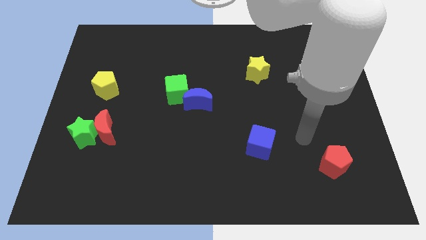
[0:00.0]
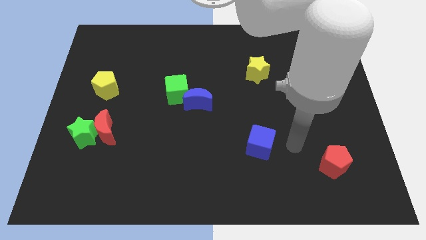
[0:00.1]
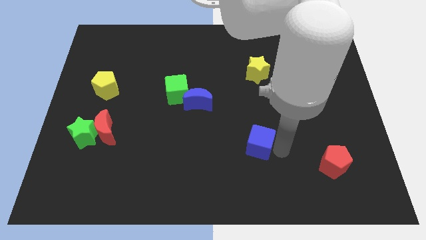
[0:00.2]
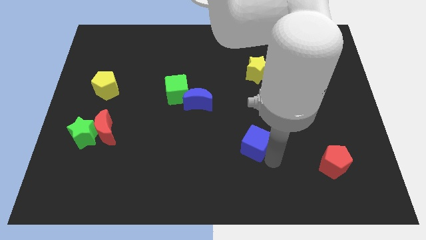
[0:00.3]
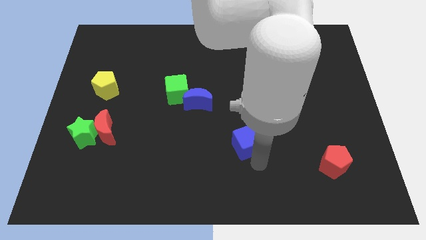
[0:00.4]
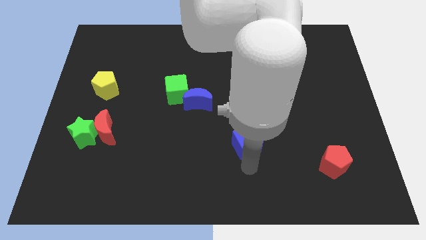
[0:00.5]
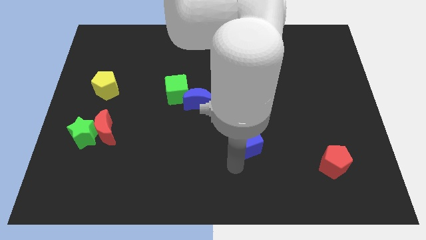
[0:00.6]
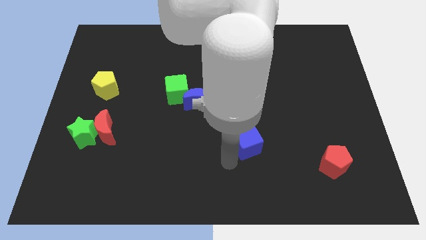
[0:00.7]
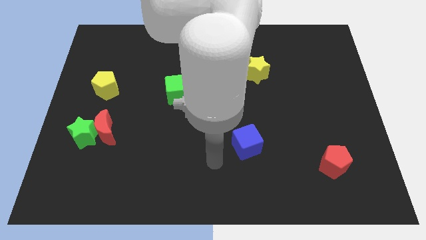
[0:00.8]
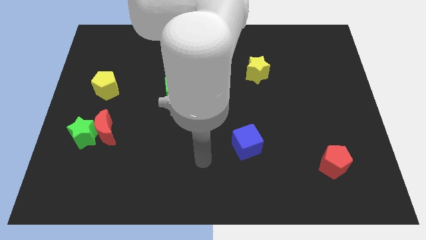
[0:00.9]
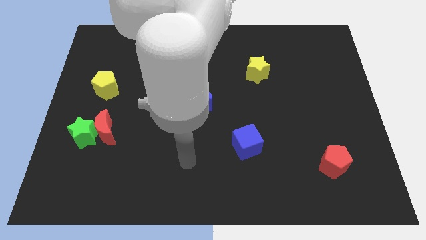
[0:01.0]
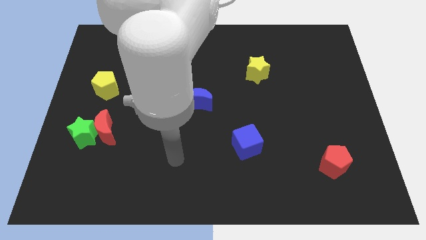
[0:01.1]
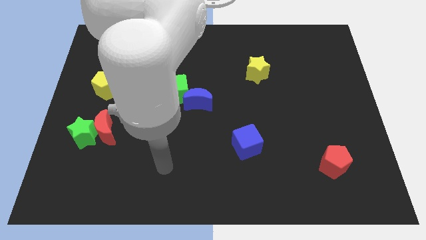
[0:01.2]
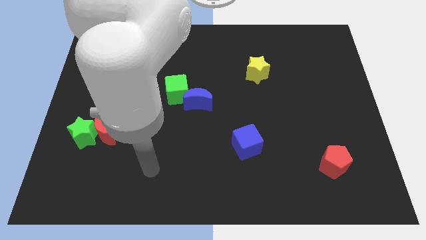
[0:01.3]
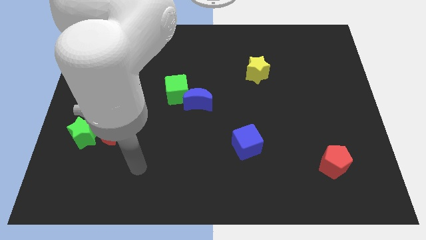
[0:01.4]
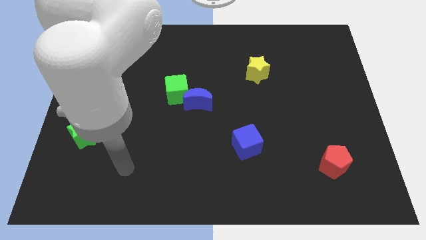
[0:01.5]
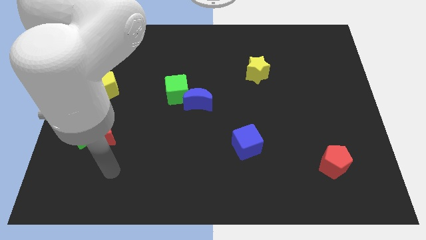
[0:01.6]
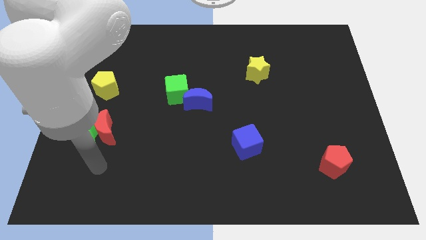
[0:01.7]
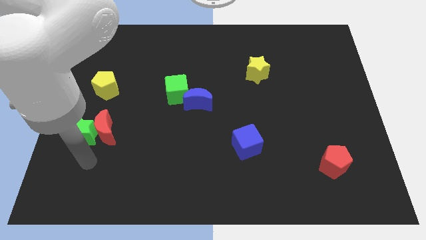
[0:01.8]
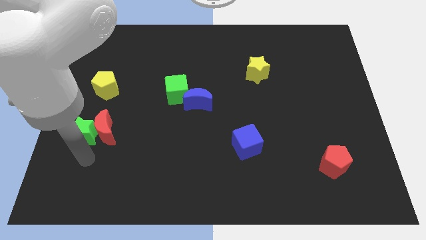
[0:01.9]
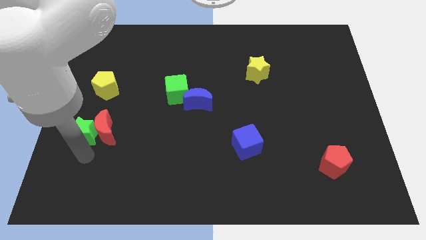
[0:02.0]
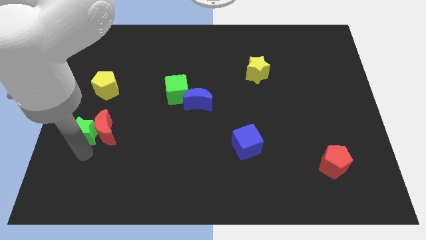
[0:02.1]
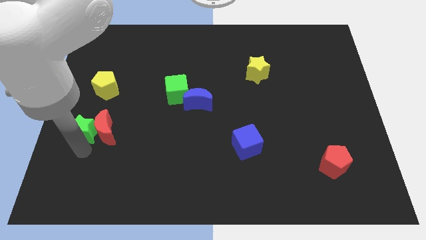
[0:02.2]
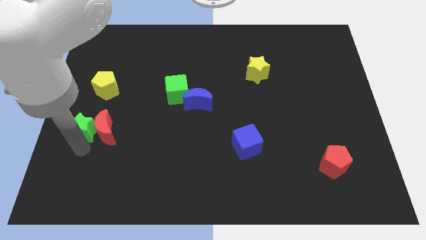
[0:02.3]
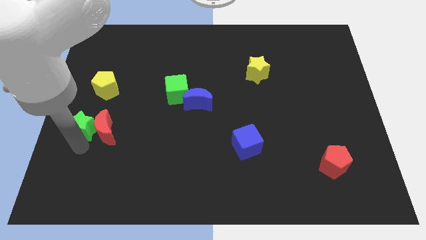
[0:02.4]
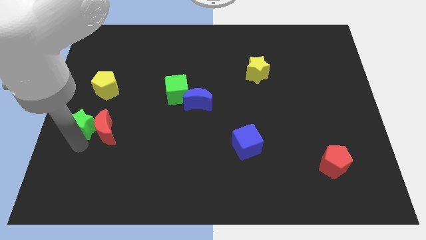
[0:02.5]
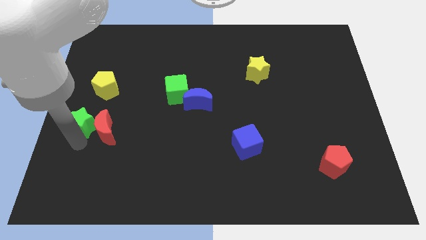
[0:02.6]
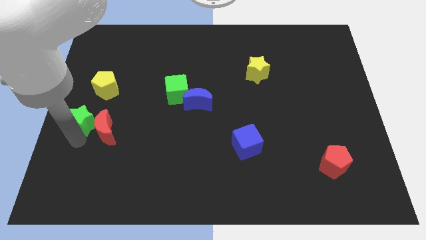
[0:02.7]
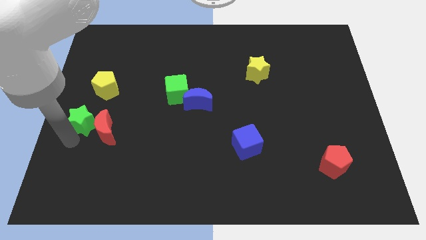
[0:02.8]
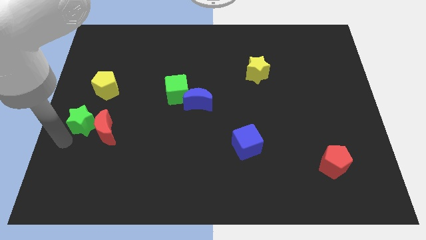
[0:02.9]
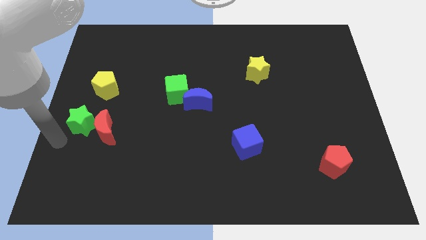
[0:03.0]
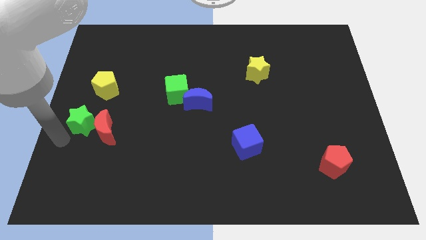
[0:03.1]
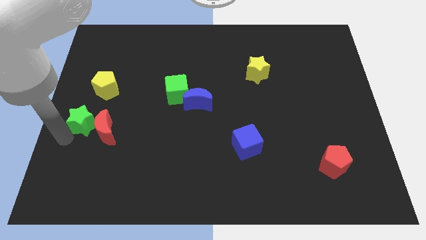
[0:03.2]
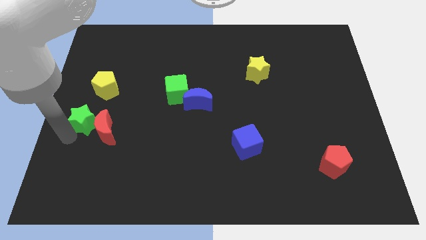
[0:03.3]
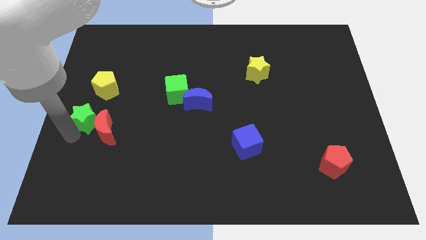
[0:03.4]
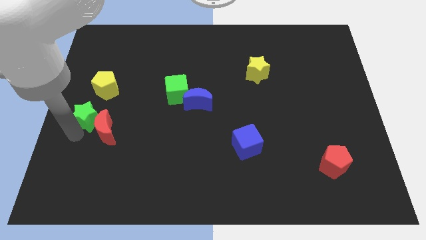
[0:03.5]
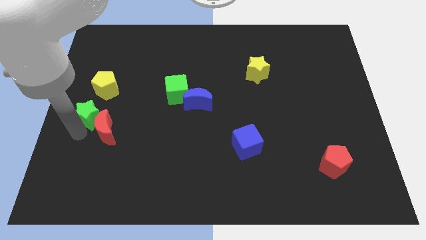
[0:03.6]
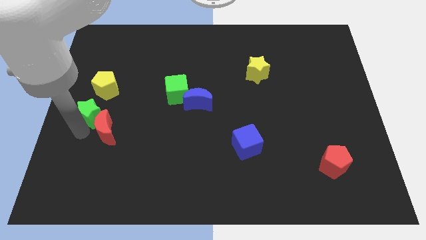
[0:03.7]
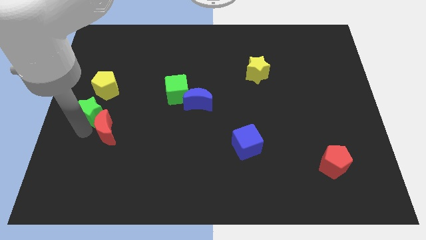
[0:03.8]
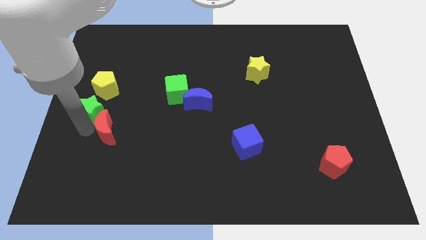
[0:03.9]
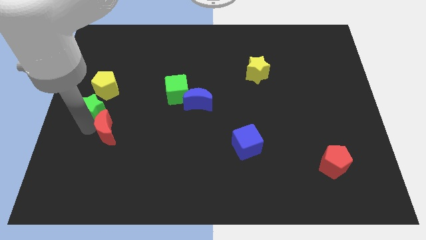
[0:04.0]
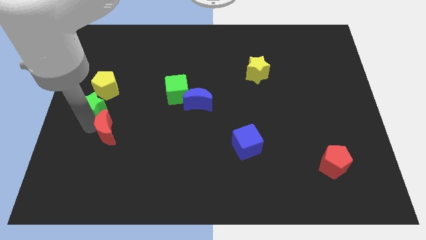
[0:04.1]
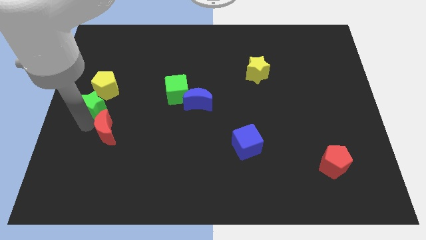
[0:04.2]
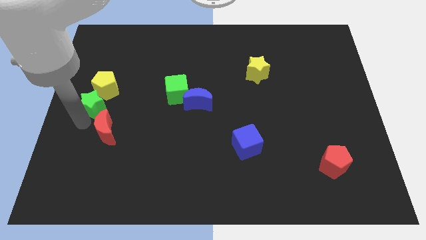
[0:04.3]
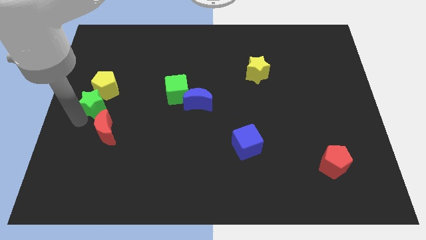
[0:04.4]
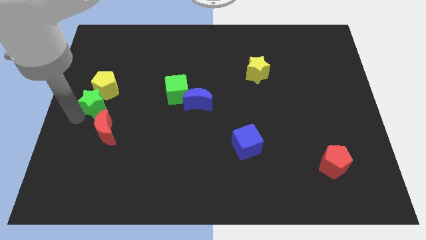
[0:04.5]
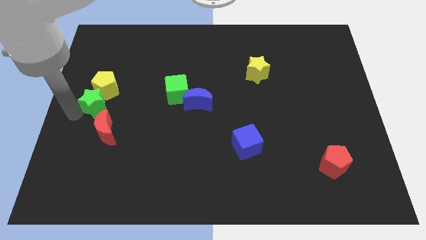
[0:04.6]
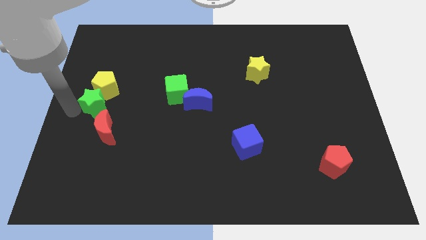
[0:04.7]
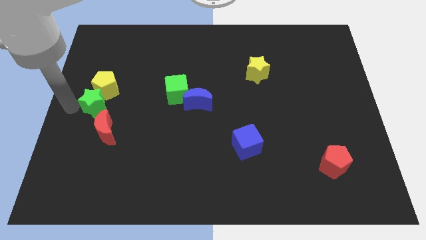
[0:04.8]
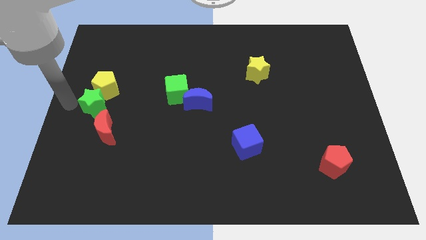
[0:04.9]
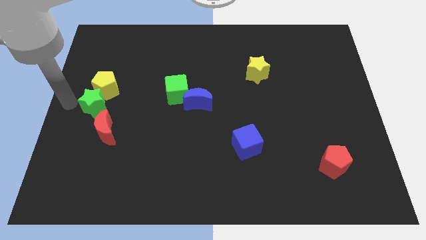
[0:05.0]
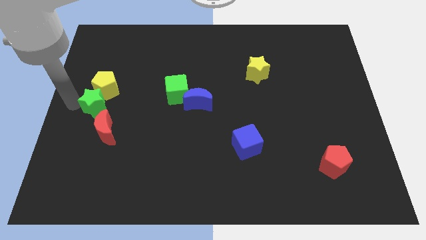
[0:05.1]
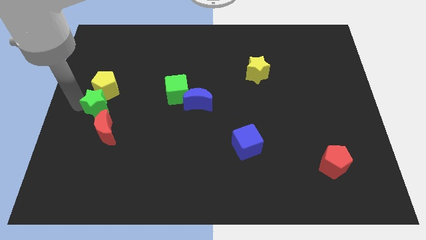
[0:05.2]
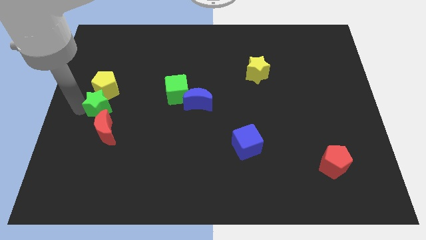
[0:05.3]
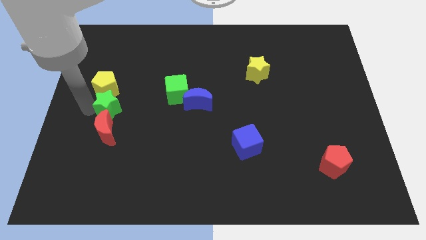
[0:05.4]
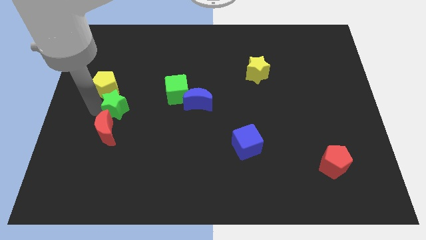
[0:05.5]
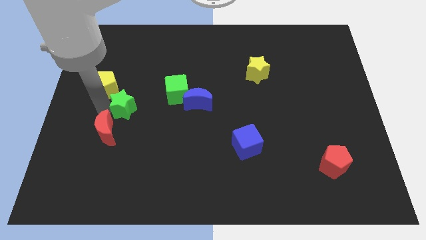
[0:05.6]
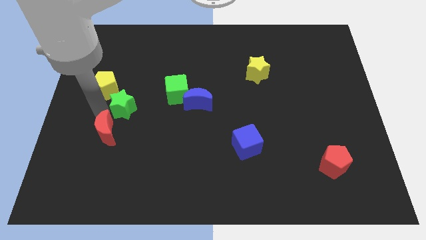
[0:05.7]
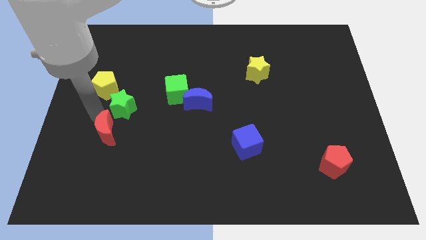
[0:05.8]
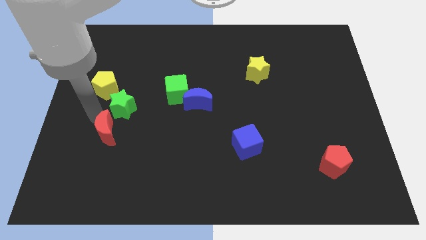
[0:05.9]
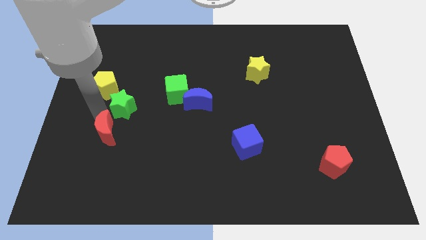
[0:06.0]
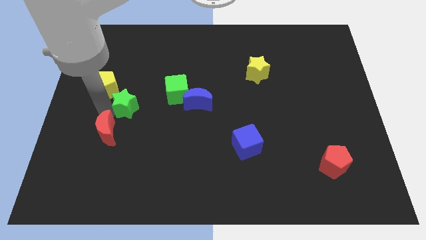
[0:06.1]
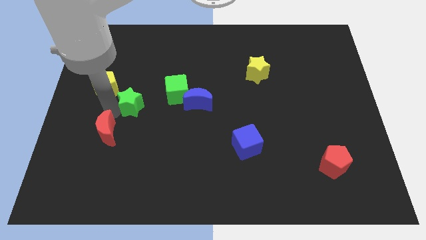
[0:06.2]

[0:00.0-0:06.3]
put the green star just left of the blue moon

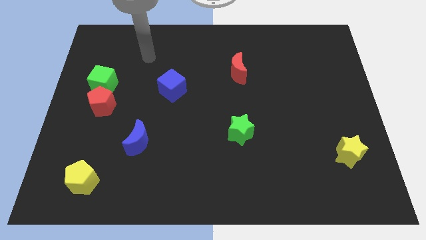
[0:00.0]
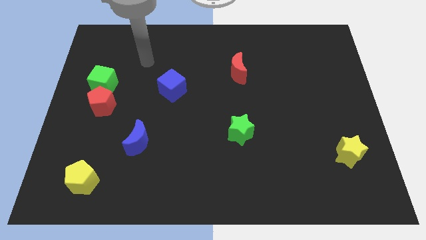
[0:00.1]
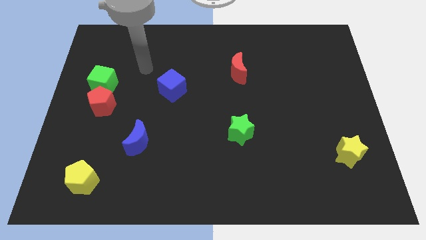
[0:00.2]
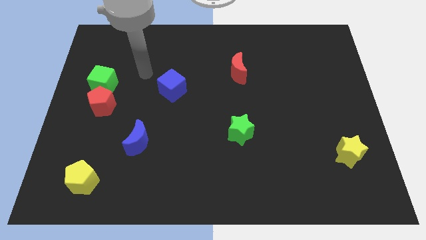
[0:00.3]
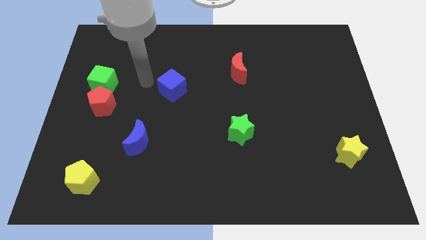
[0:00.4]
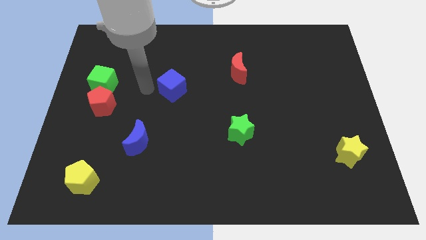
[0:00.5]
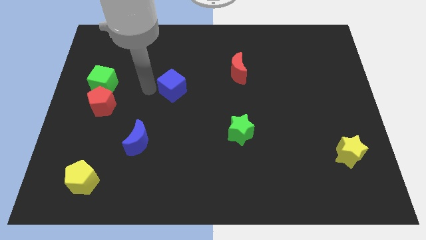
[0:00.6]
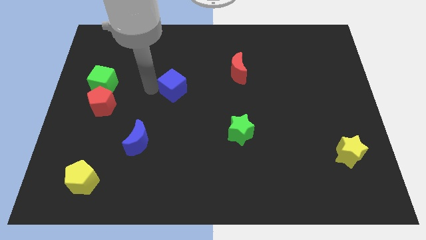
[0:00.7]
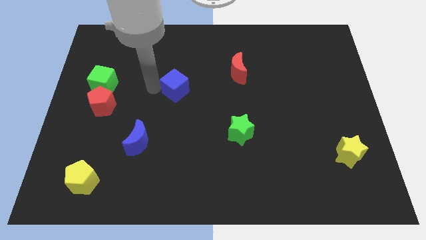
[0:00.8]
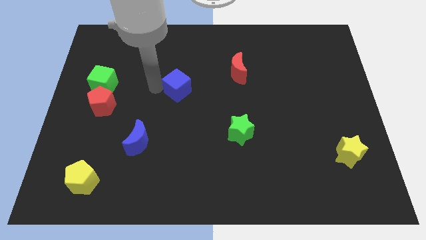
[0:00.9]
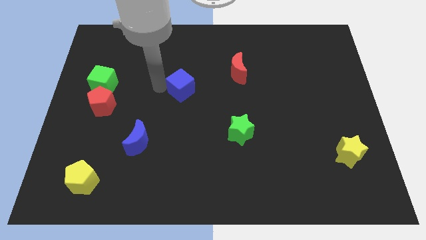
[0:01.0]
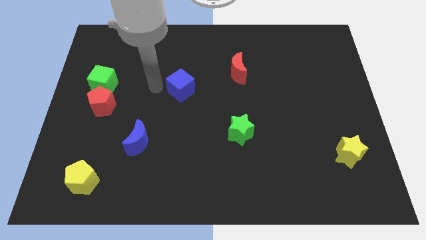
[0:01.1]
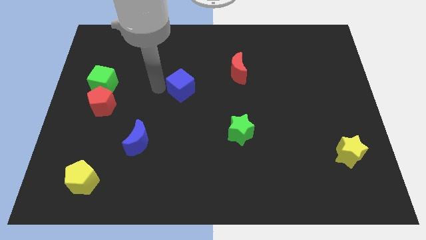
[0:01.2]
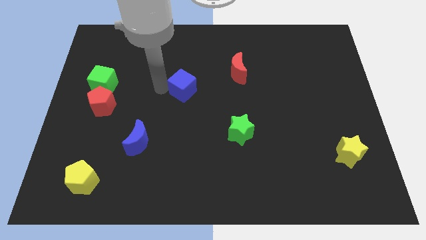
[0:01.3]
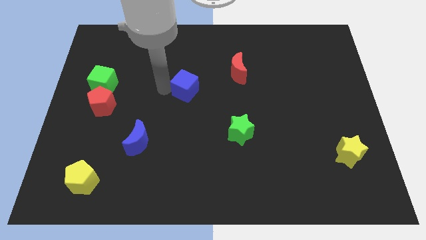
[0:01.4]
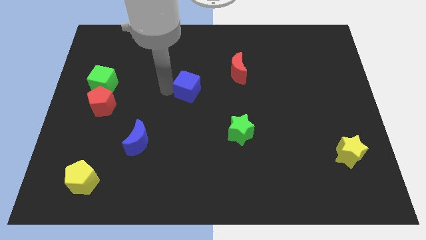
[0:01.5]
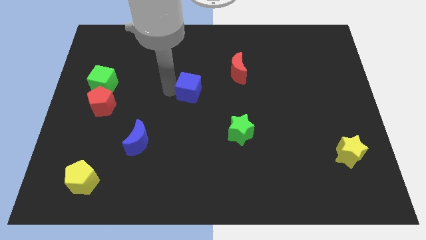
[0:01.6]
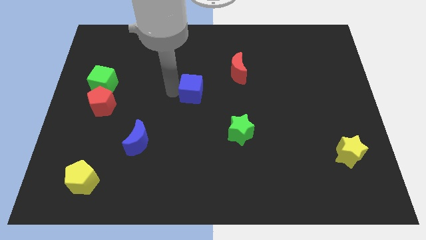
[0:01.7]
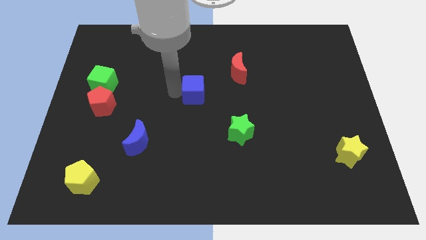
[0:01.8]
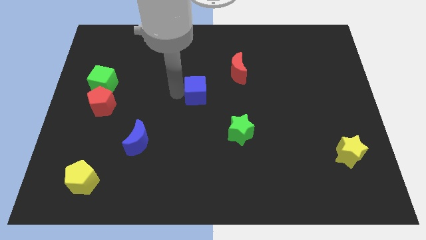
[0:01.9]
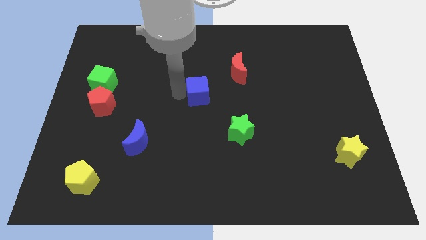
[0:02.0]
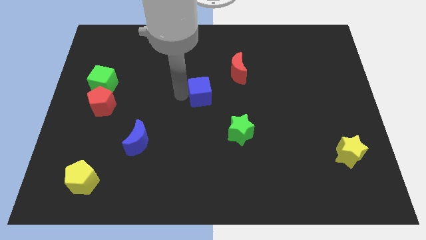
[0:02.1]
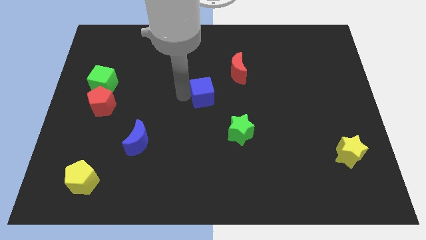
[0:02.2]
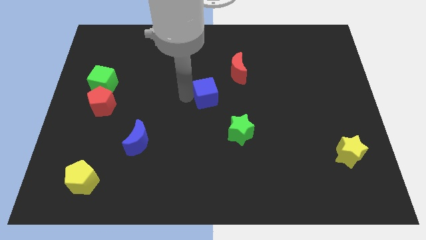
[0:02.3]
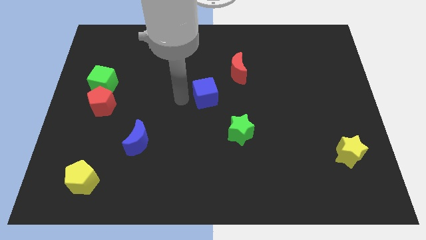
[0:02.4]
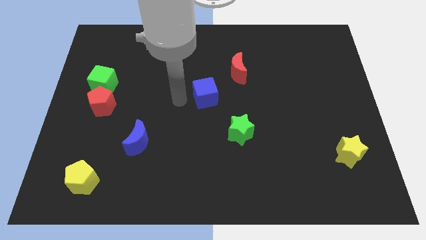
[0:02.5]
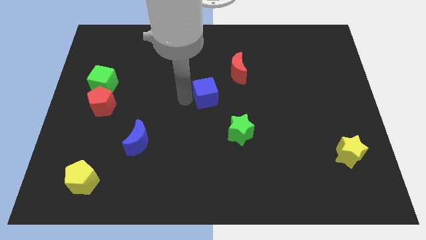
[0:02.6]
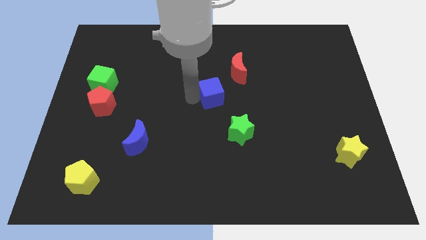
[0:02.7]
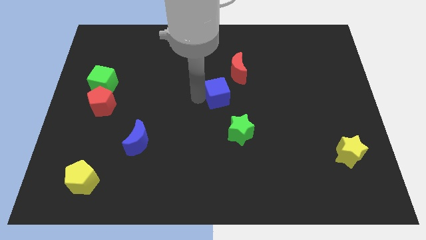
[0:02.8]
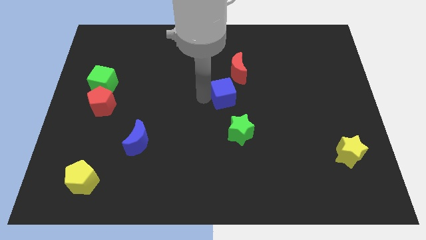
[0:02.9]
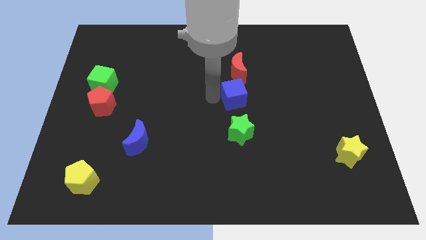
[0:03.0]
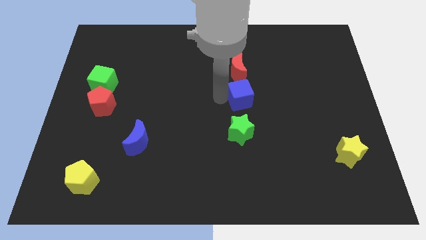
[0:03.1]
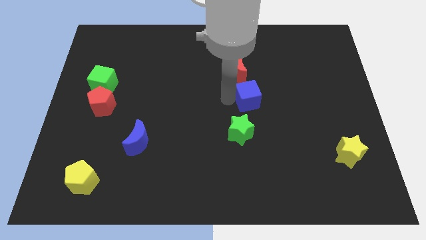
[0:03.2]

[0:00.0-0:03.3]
push the blue cube to the bottom right side of the red moon
